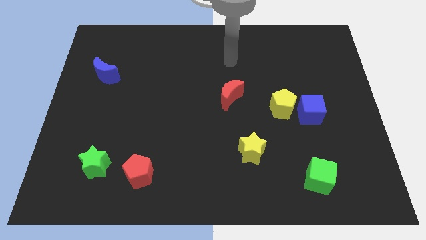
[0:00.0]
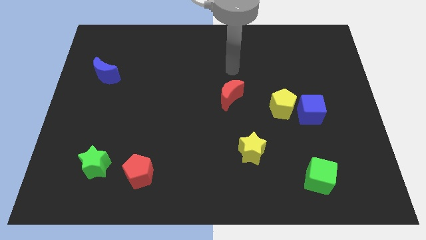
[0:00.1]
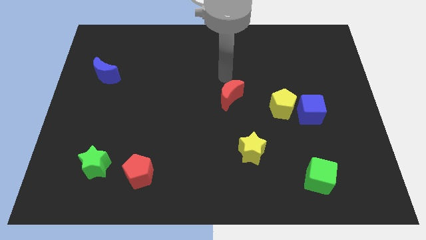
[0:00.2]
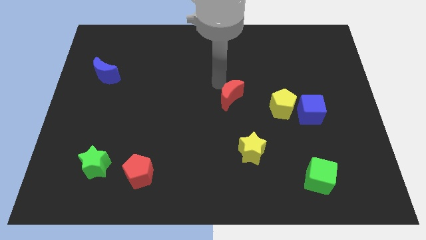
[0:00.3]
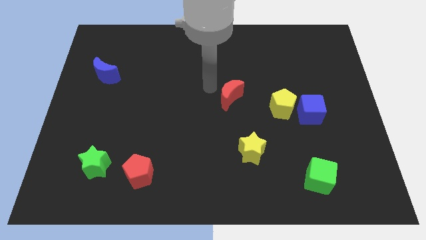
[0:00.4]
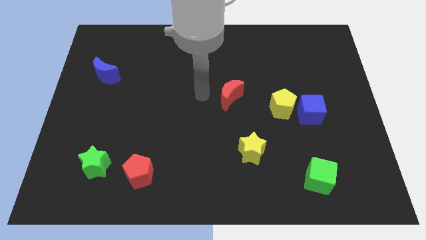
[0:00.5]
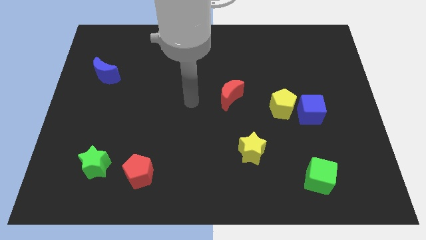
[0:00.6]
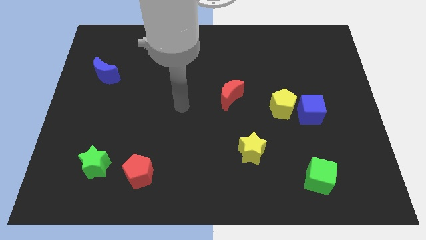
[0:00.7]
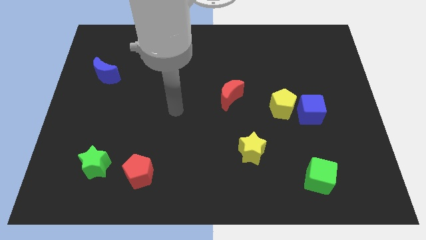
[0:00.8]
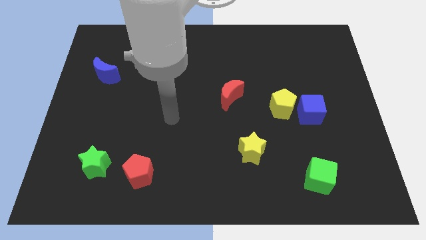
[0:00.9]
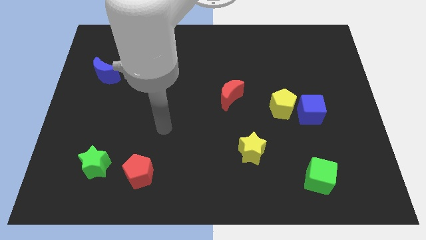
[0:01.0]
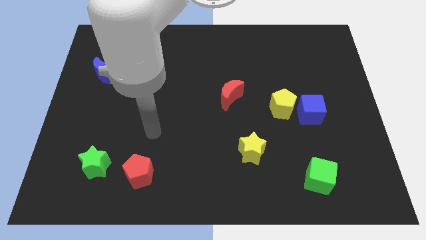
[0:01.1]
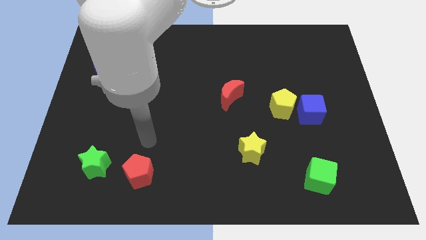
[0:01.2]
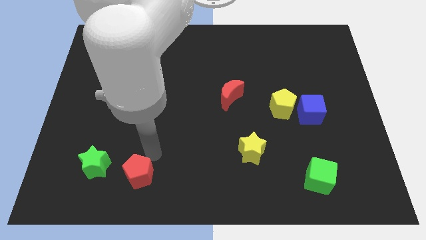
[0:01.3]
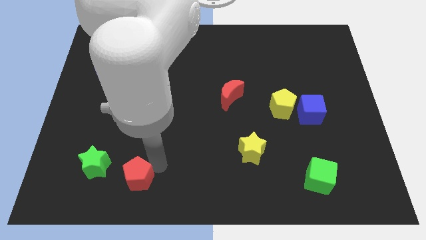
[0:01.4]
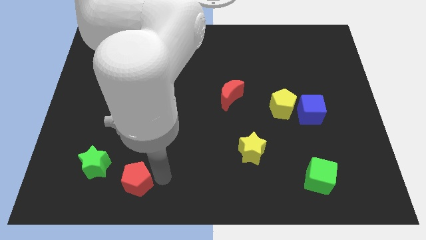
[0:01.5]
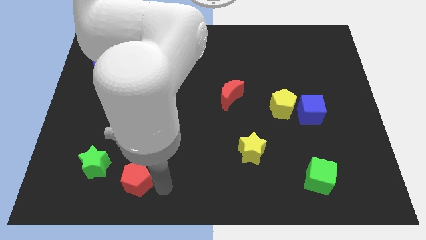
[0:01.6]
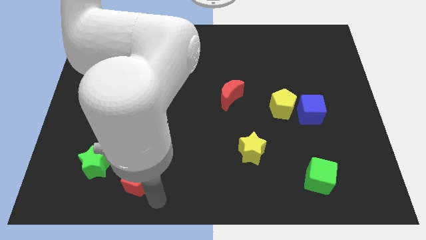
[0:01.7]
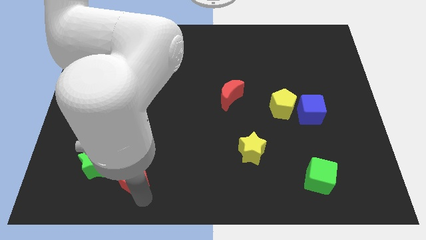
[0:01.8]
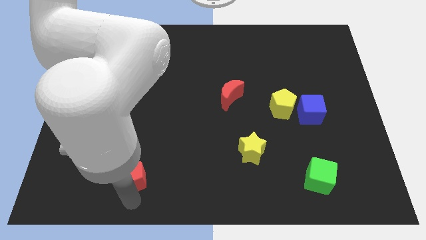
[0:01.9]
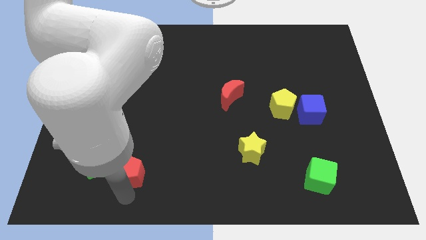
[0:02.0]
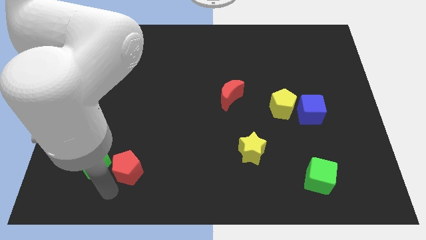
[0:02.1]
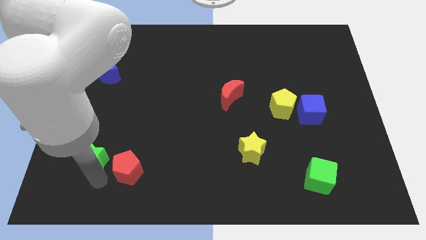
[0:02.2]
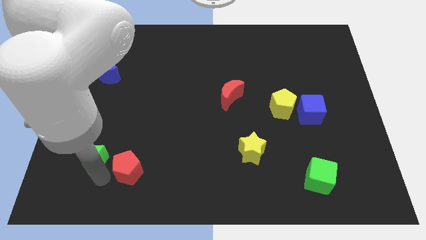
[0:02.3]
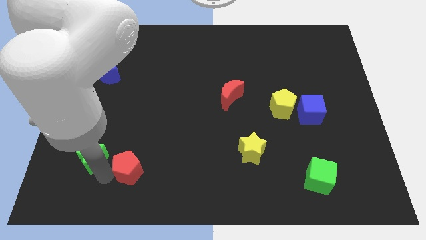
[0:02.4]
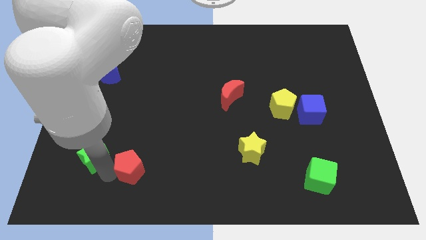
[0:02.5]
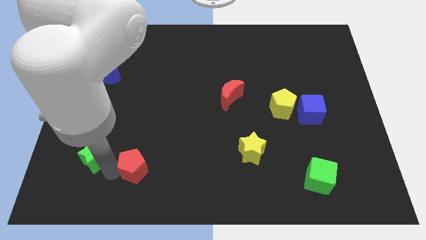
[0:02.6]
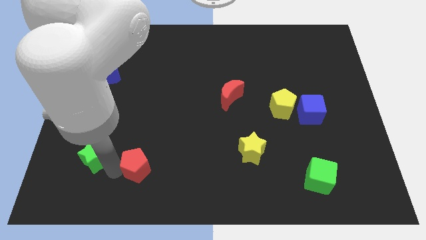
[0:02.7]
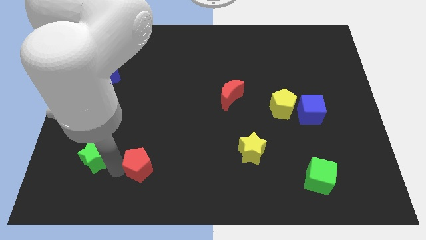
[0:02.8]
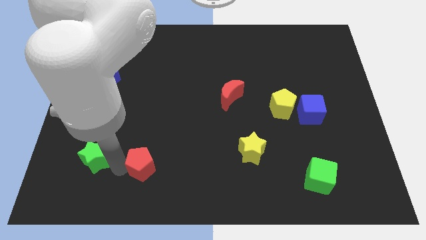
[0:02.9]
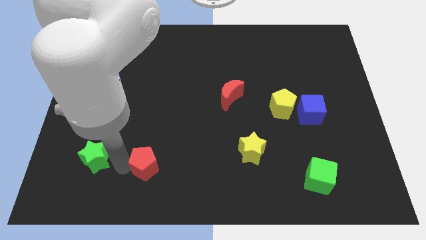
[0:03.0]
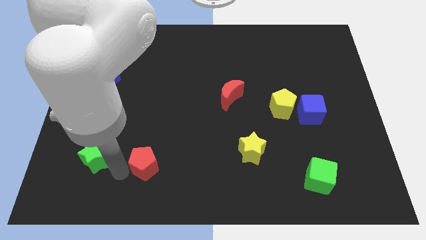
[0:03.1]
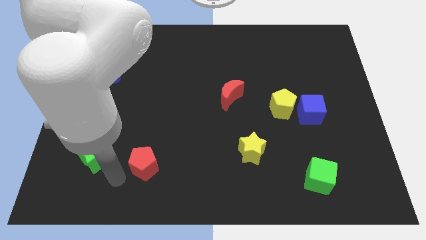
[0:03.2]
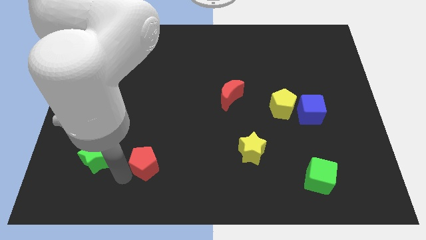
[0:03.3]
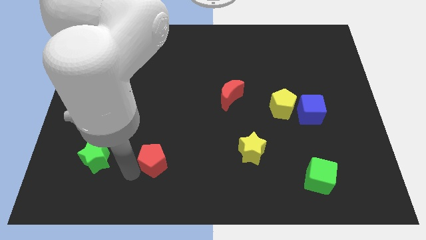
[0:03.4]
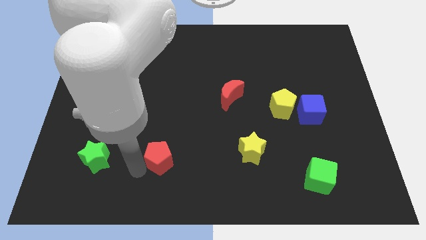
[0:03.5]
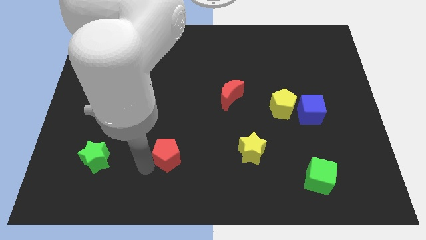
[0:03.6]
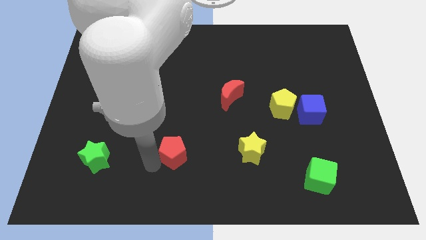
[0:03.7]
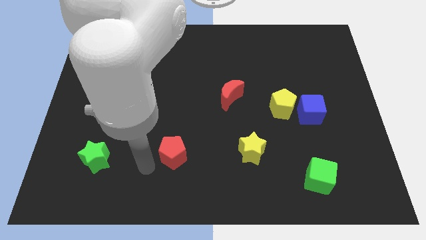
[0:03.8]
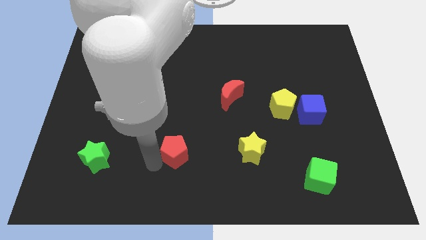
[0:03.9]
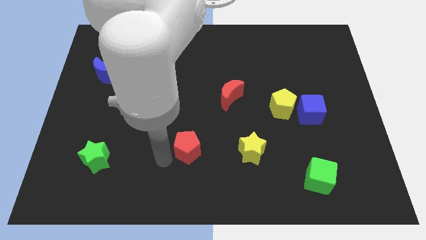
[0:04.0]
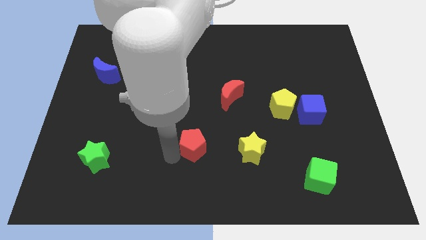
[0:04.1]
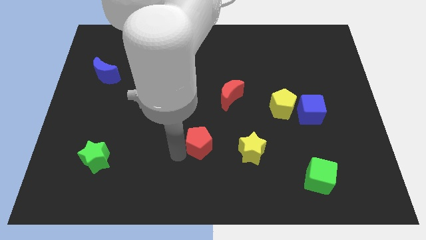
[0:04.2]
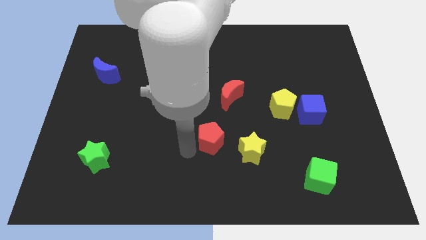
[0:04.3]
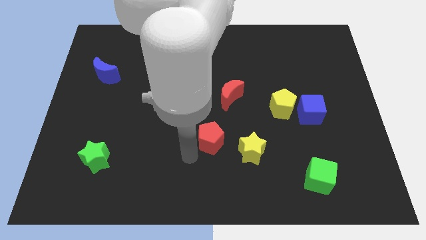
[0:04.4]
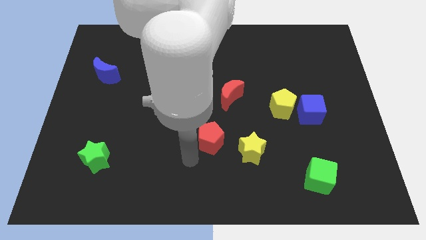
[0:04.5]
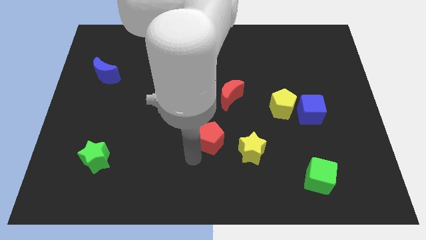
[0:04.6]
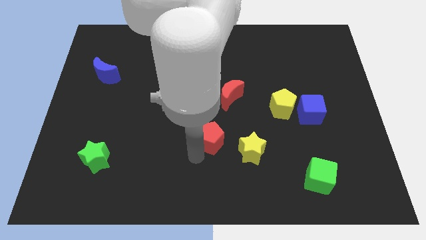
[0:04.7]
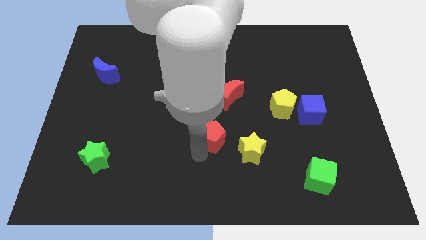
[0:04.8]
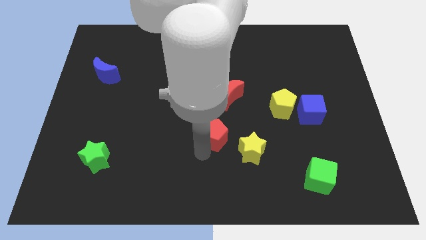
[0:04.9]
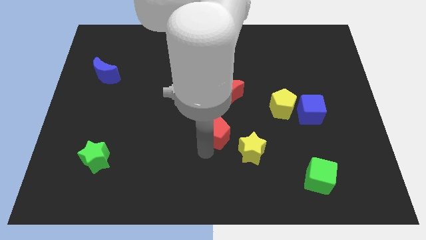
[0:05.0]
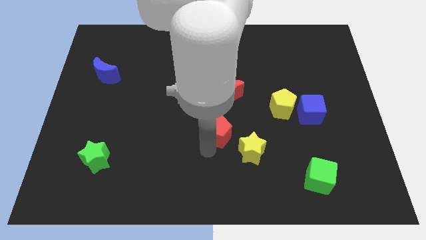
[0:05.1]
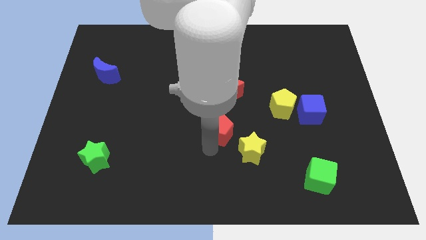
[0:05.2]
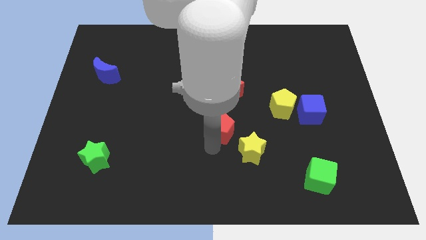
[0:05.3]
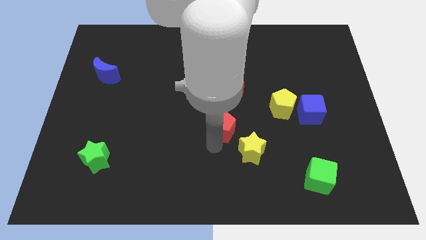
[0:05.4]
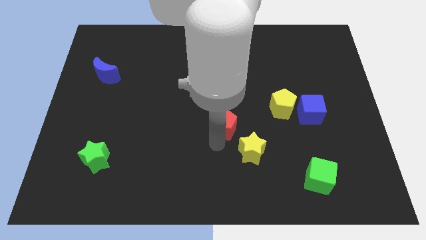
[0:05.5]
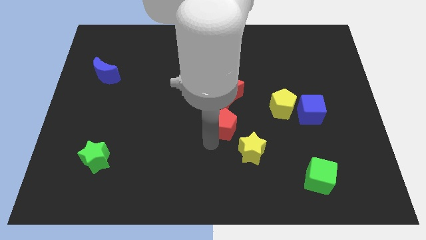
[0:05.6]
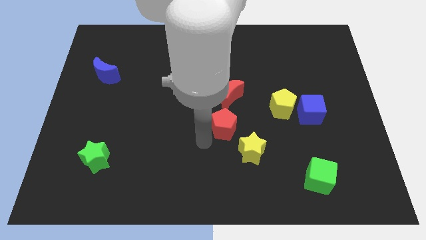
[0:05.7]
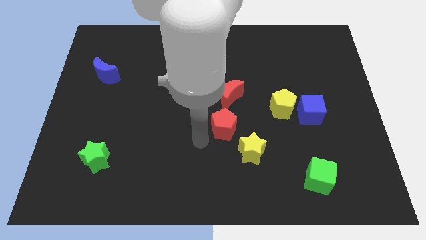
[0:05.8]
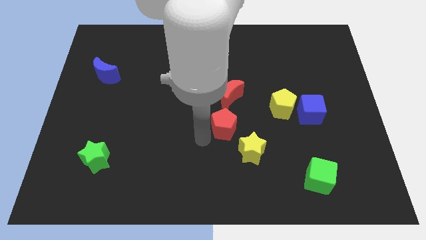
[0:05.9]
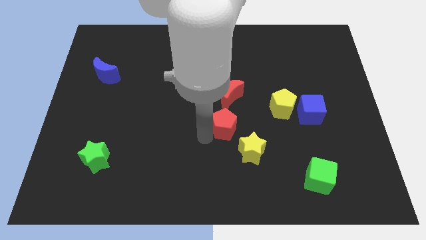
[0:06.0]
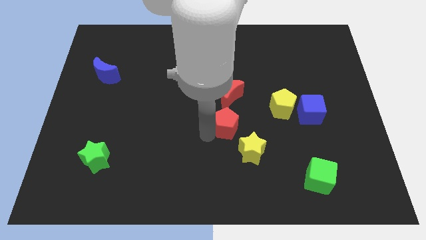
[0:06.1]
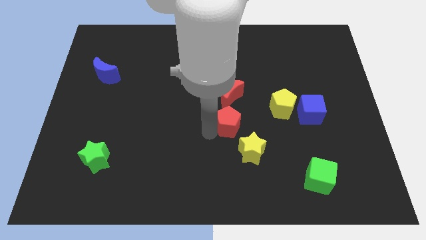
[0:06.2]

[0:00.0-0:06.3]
put the red pentagon to the top side of the yellow star

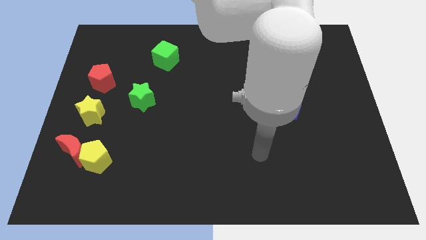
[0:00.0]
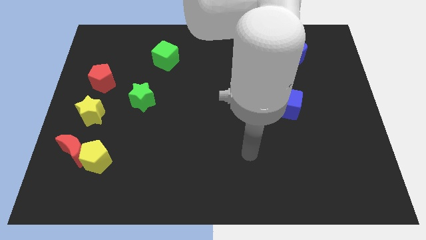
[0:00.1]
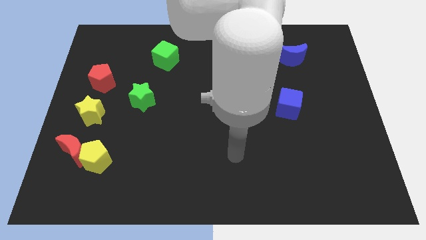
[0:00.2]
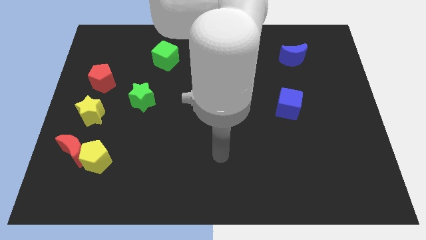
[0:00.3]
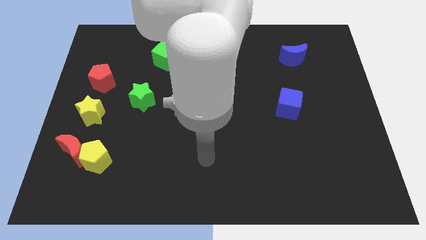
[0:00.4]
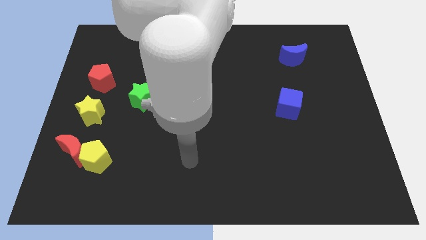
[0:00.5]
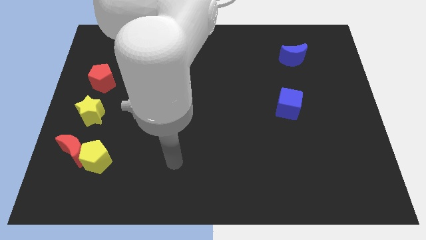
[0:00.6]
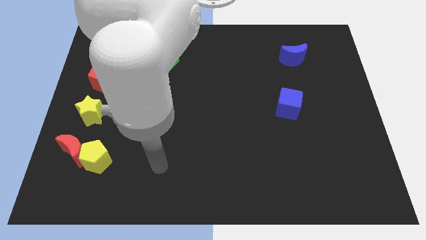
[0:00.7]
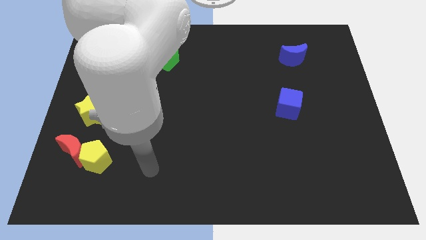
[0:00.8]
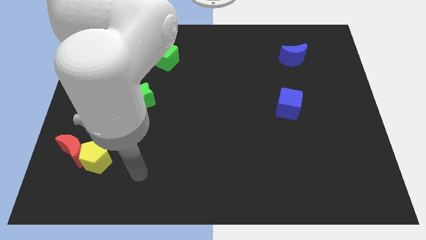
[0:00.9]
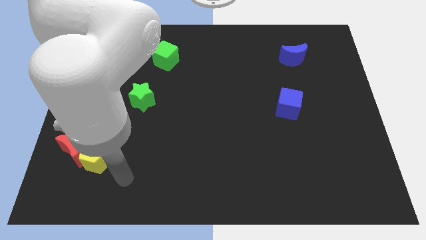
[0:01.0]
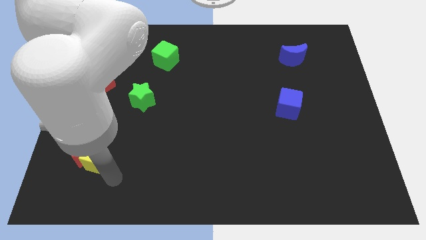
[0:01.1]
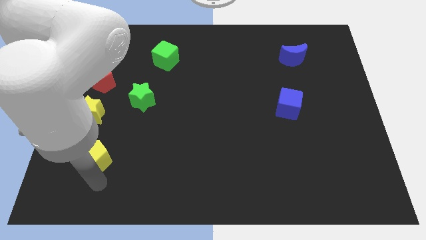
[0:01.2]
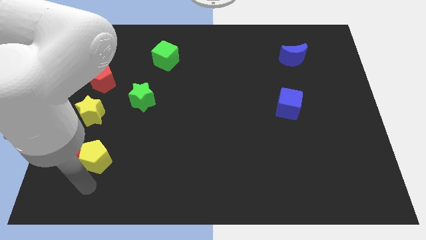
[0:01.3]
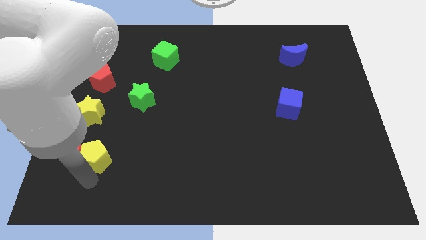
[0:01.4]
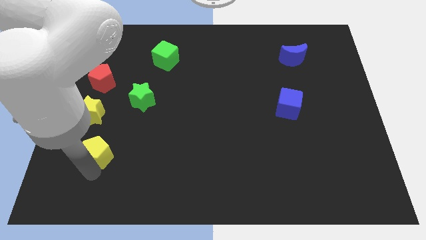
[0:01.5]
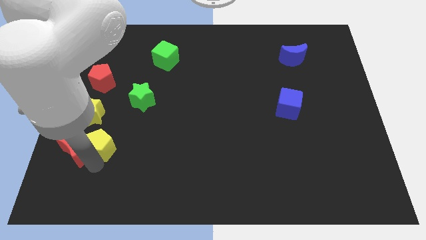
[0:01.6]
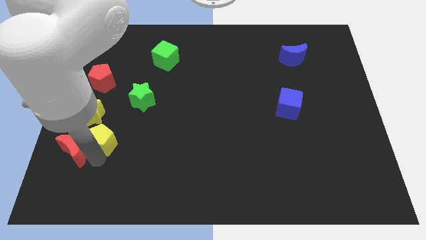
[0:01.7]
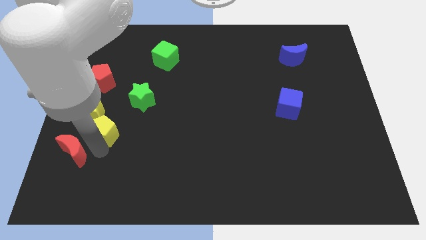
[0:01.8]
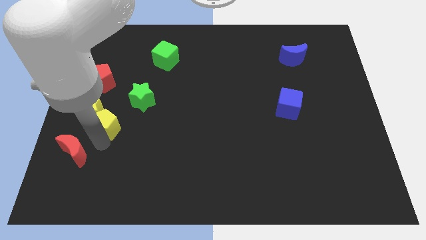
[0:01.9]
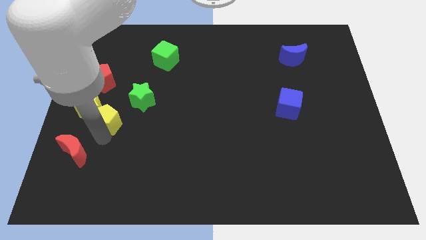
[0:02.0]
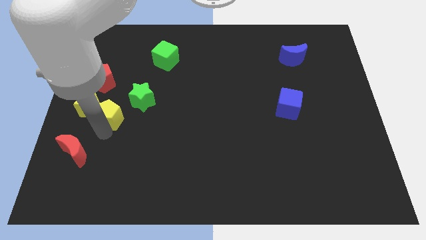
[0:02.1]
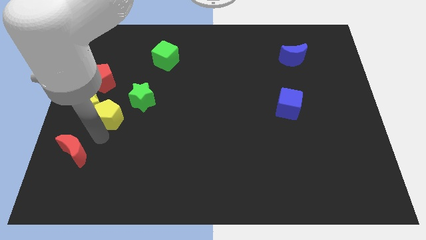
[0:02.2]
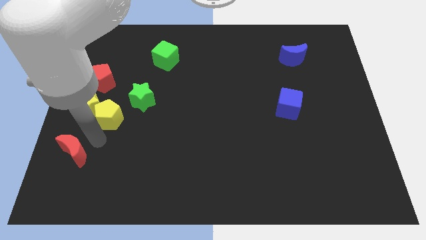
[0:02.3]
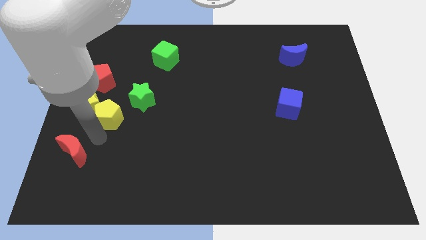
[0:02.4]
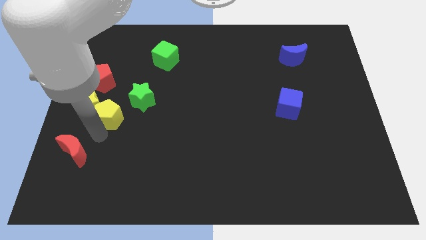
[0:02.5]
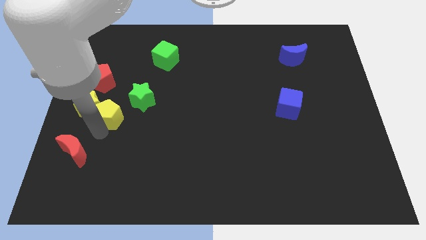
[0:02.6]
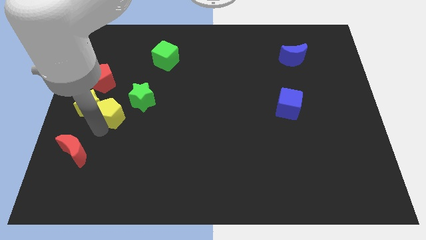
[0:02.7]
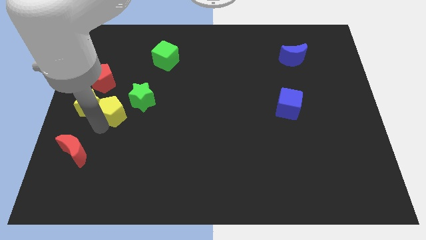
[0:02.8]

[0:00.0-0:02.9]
move the yellow pentagon to the bottom right side of the red pentagon
